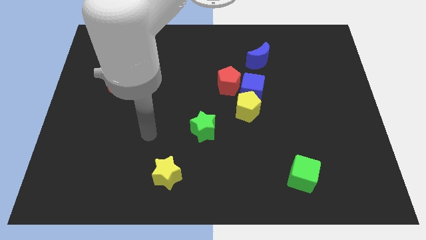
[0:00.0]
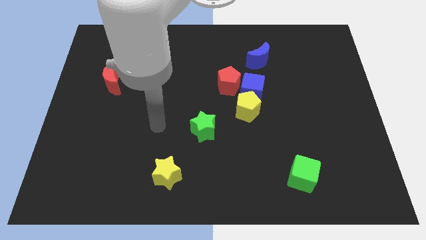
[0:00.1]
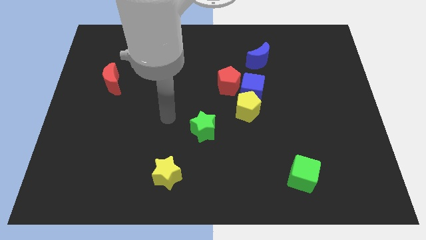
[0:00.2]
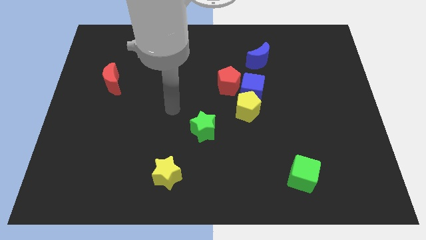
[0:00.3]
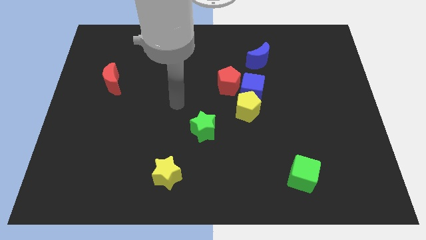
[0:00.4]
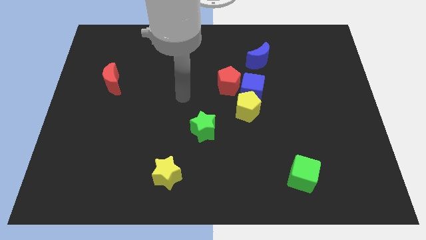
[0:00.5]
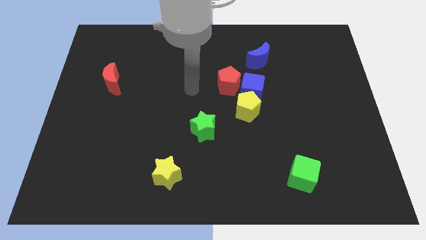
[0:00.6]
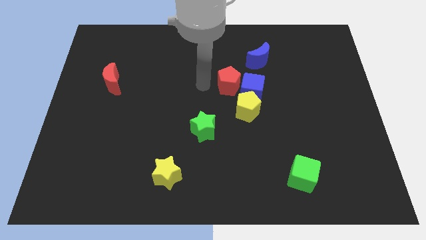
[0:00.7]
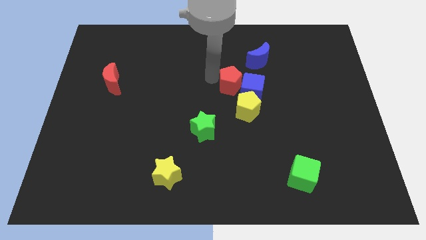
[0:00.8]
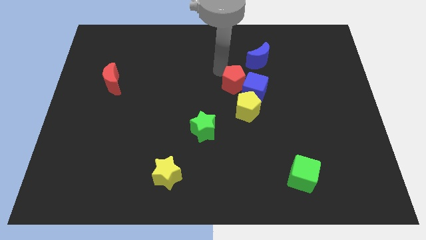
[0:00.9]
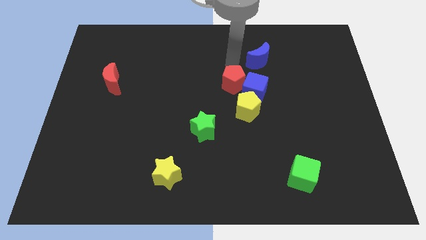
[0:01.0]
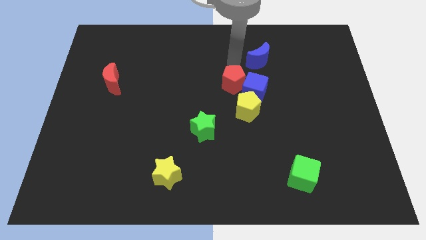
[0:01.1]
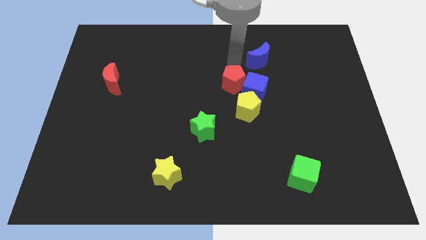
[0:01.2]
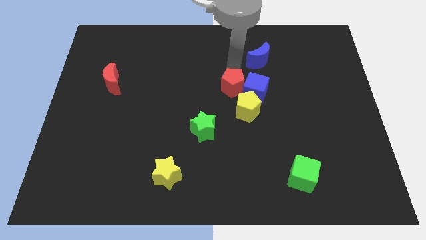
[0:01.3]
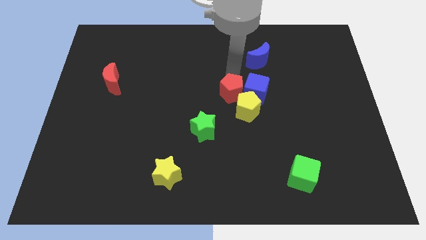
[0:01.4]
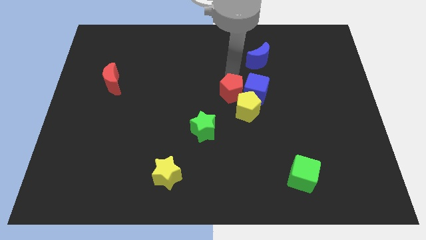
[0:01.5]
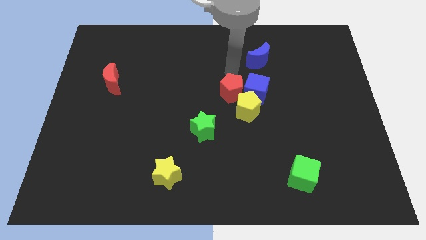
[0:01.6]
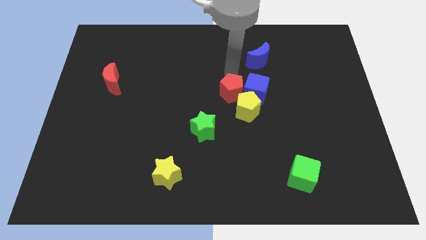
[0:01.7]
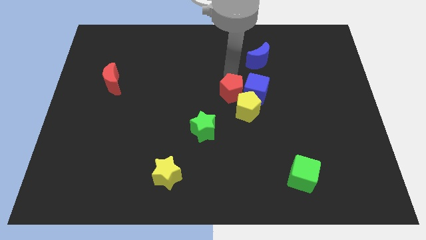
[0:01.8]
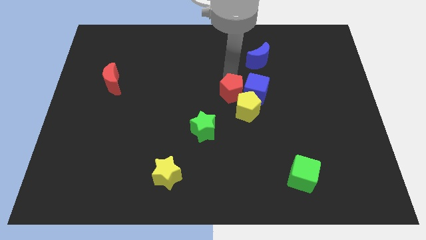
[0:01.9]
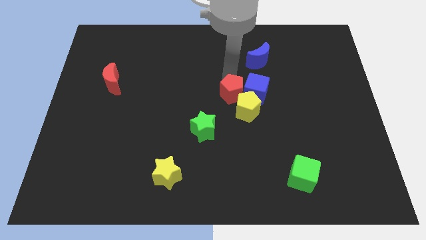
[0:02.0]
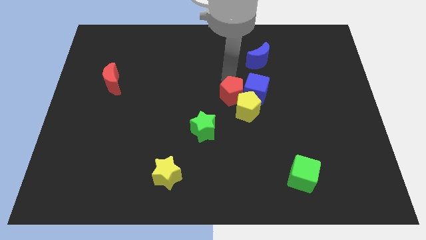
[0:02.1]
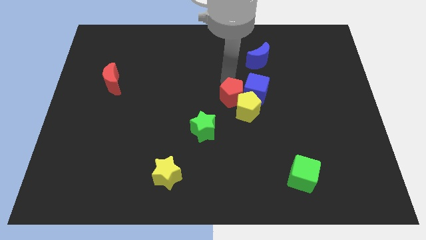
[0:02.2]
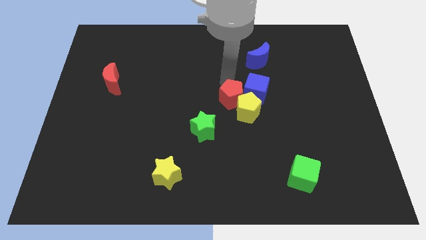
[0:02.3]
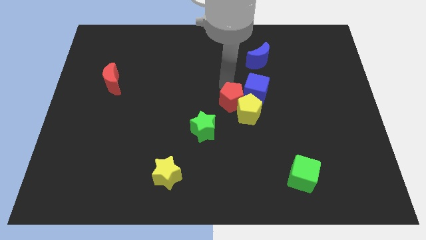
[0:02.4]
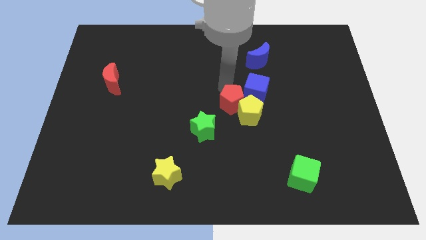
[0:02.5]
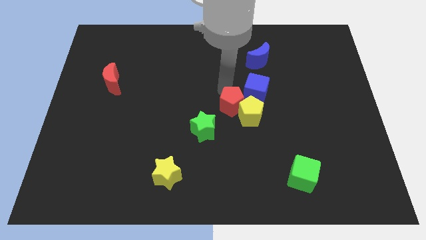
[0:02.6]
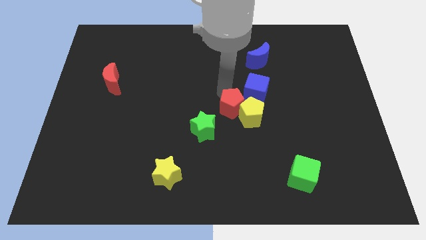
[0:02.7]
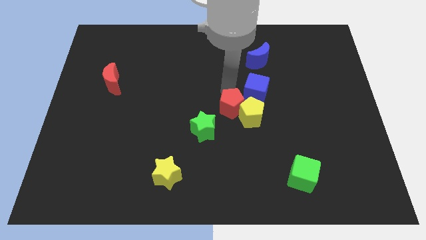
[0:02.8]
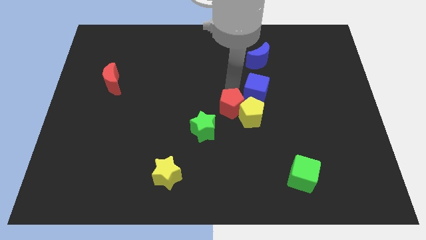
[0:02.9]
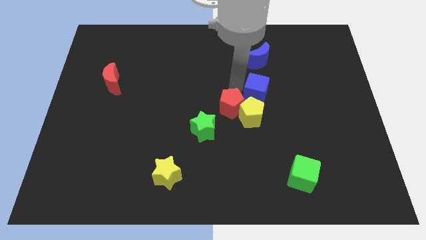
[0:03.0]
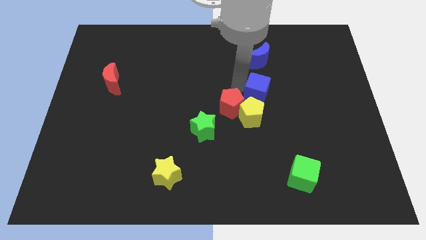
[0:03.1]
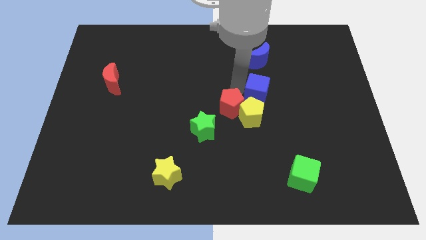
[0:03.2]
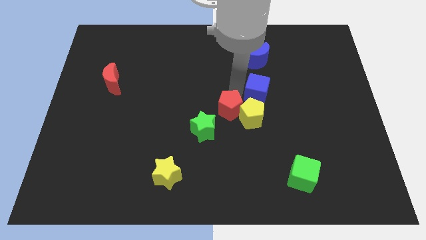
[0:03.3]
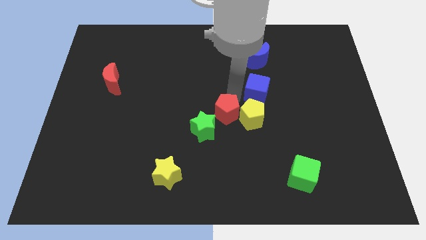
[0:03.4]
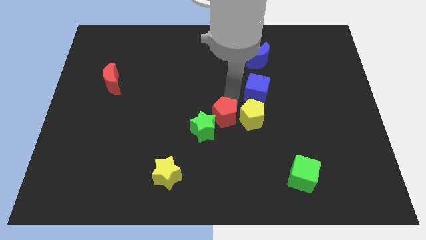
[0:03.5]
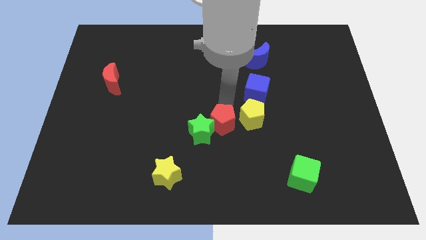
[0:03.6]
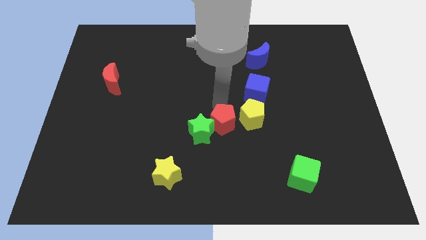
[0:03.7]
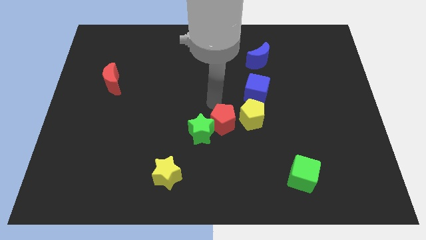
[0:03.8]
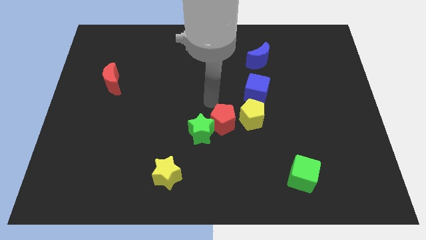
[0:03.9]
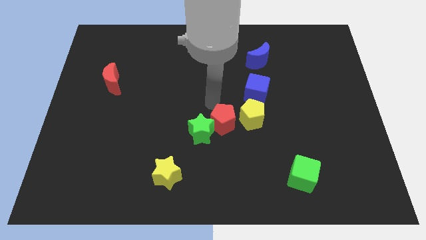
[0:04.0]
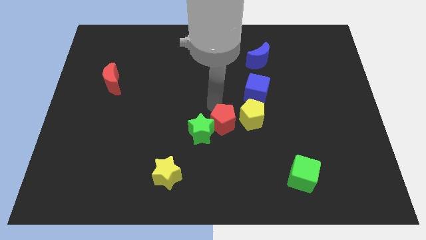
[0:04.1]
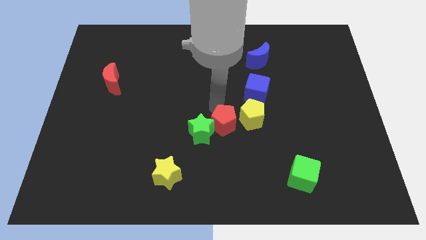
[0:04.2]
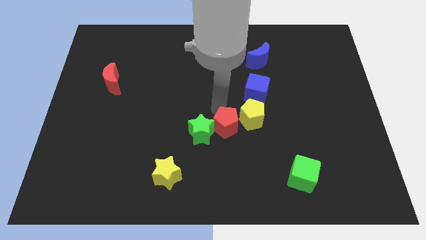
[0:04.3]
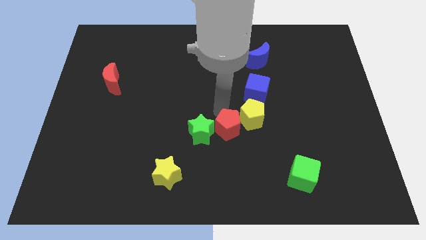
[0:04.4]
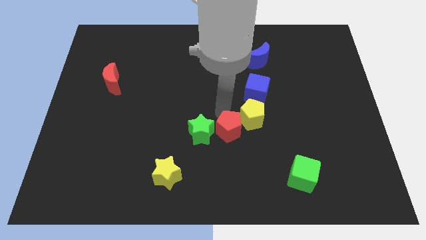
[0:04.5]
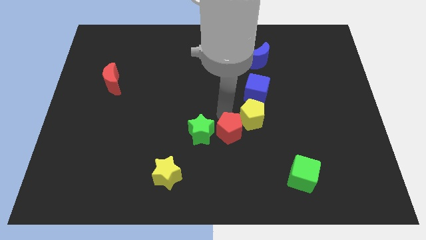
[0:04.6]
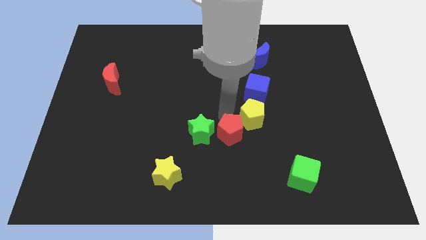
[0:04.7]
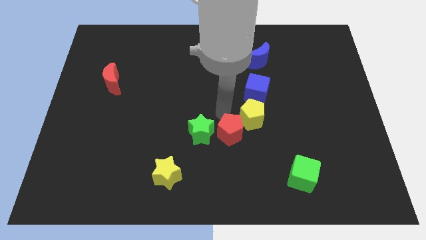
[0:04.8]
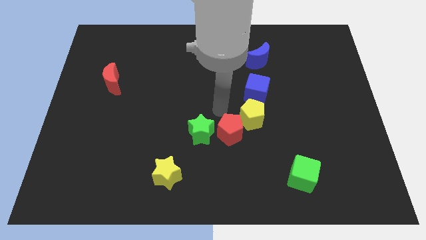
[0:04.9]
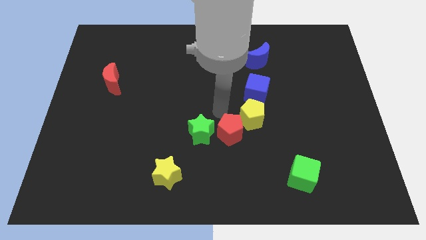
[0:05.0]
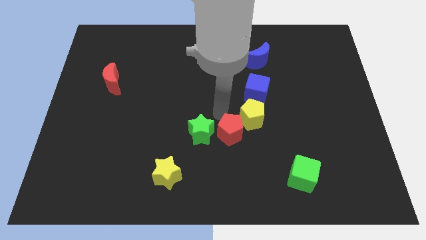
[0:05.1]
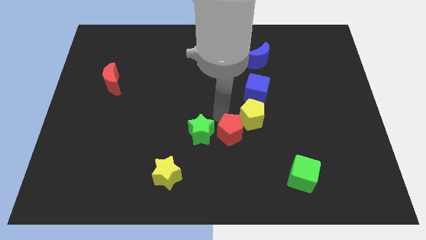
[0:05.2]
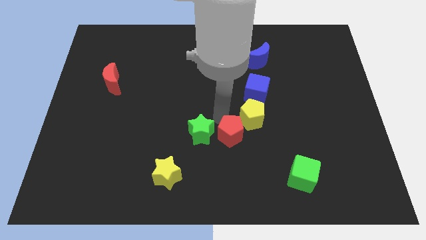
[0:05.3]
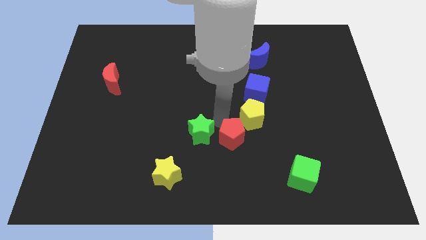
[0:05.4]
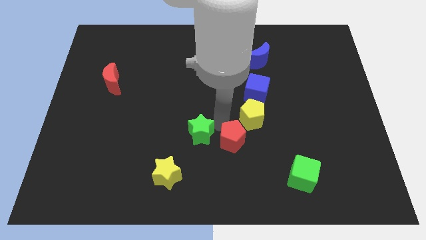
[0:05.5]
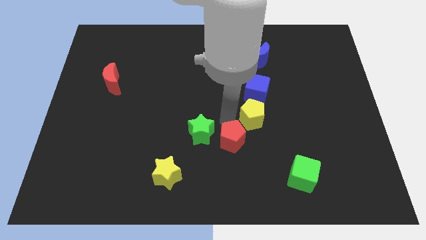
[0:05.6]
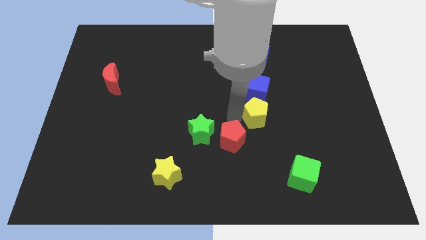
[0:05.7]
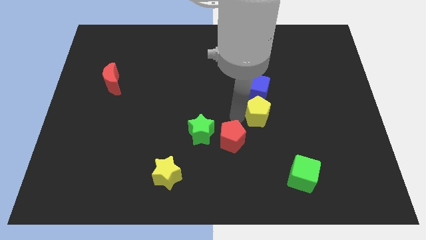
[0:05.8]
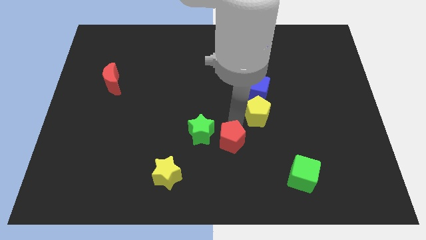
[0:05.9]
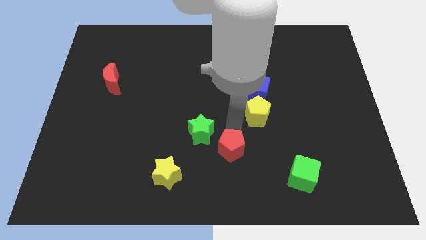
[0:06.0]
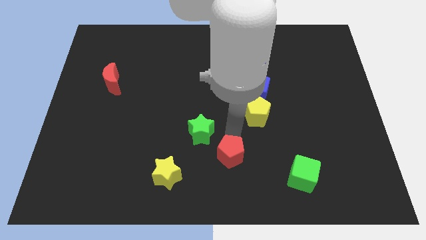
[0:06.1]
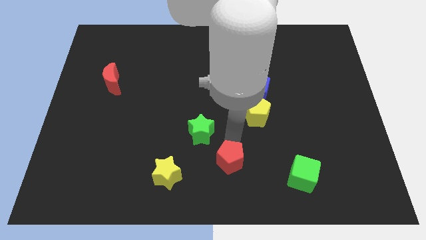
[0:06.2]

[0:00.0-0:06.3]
slide the red pentagon to the bottom side
